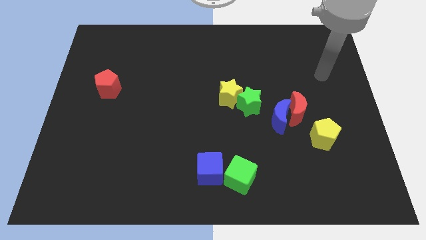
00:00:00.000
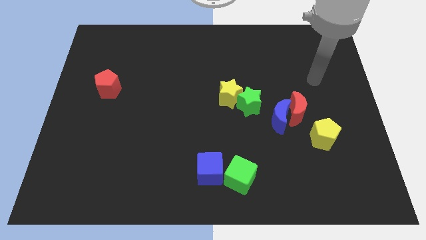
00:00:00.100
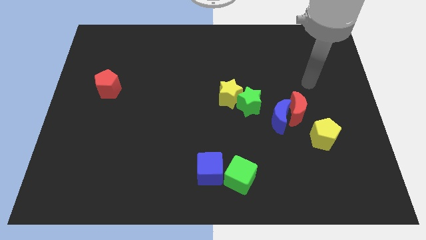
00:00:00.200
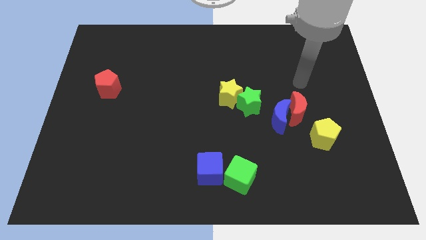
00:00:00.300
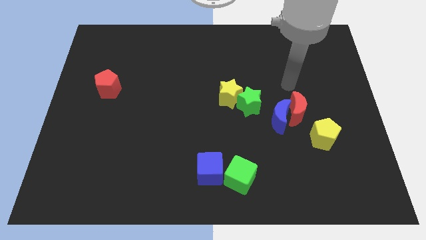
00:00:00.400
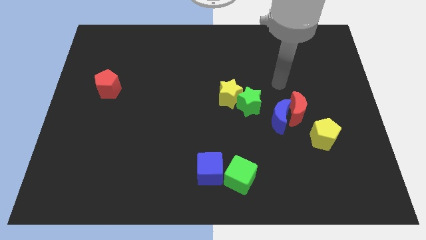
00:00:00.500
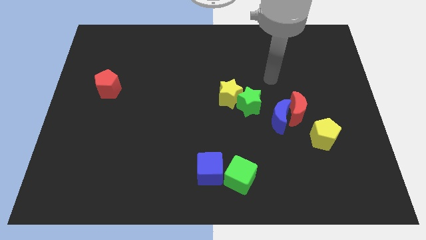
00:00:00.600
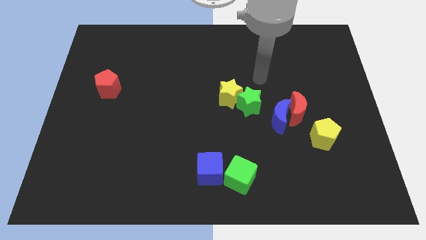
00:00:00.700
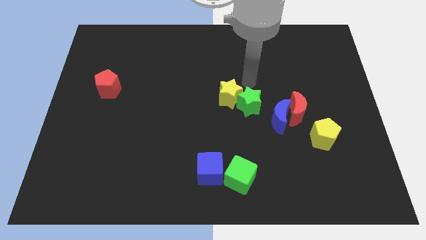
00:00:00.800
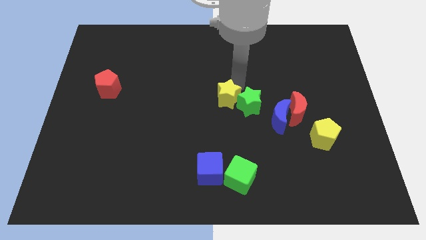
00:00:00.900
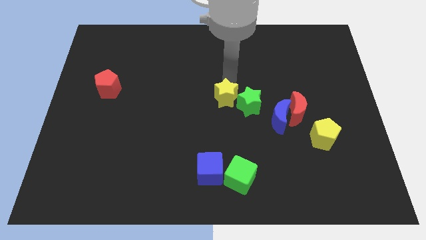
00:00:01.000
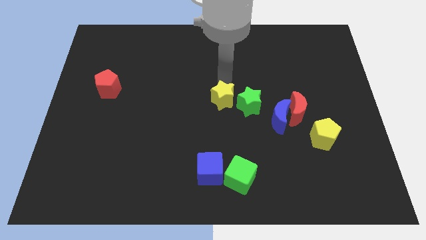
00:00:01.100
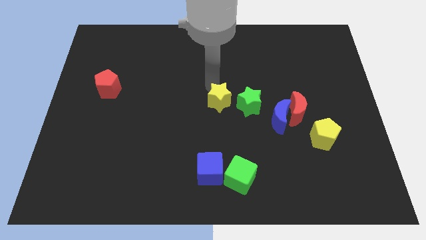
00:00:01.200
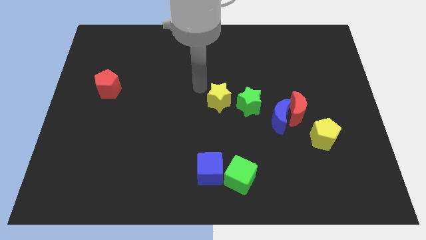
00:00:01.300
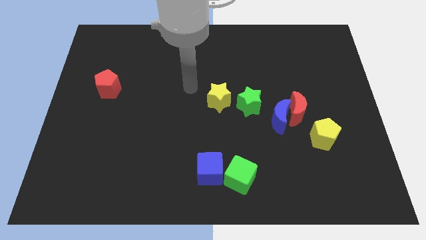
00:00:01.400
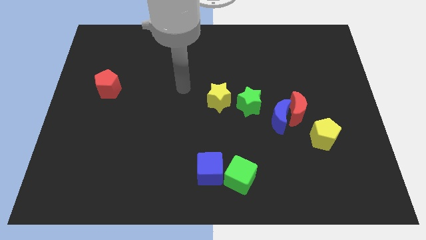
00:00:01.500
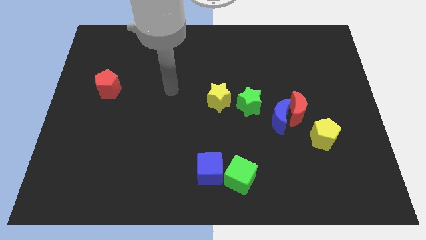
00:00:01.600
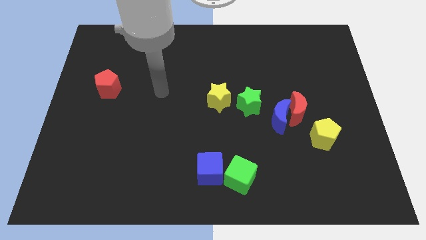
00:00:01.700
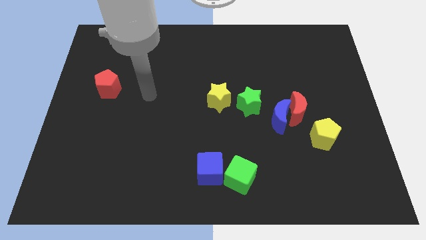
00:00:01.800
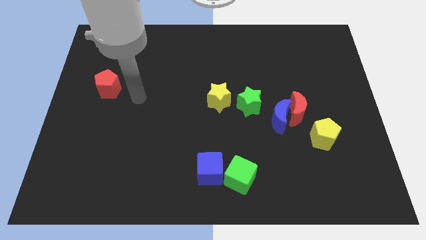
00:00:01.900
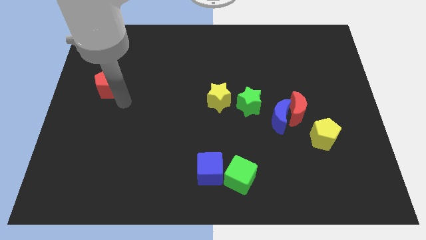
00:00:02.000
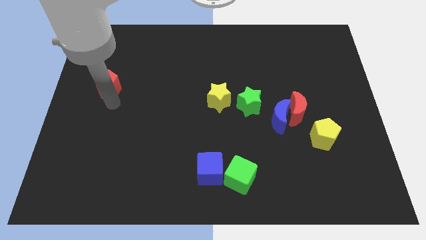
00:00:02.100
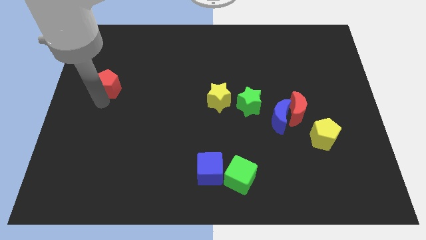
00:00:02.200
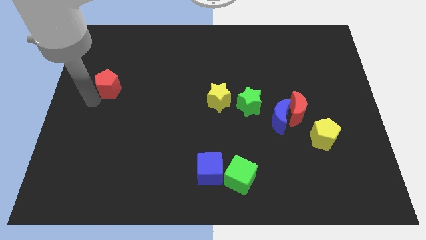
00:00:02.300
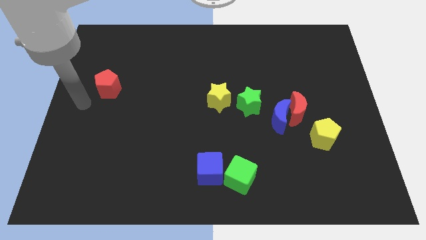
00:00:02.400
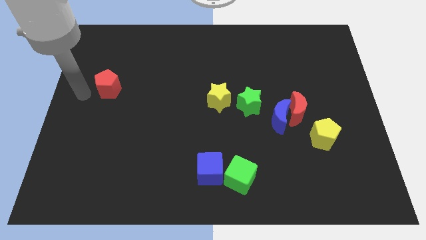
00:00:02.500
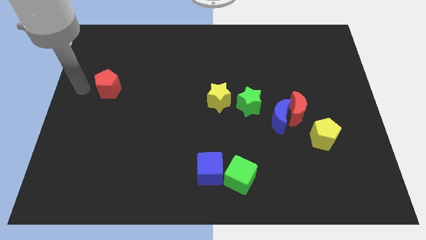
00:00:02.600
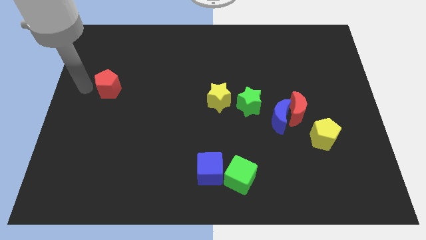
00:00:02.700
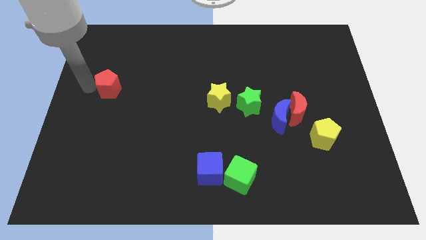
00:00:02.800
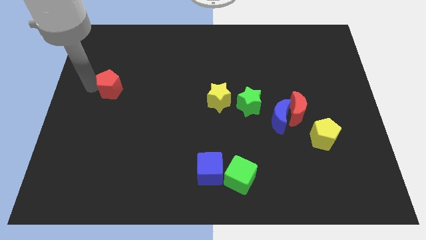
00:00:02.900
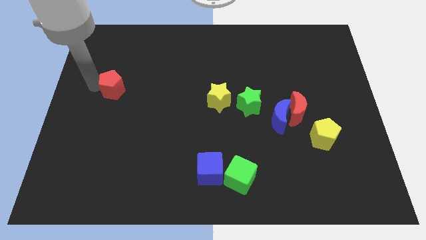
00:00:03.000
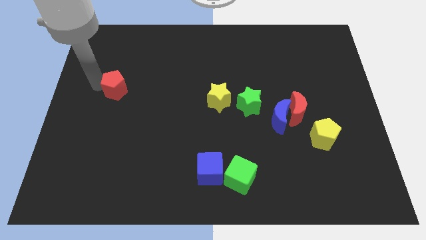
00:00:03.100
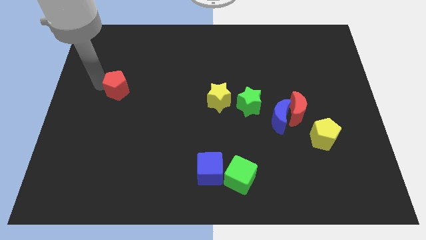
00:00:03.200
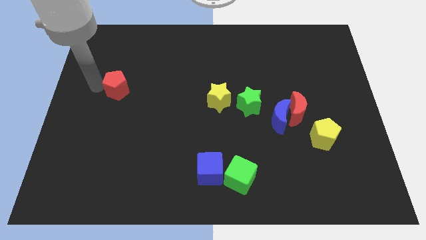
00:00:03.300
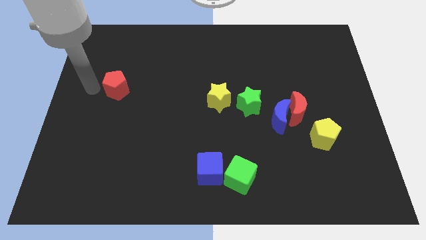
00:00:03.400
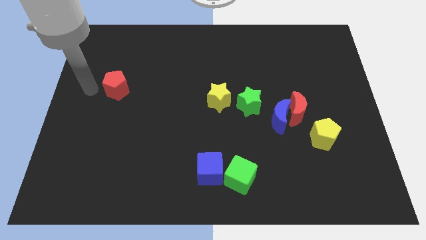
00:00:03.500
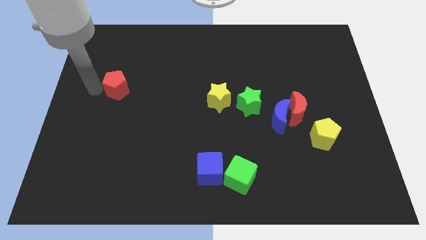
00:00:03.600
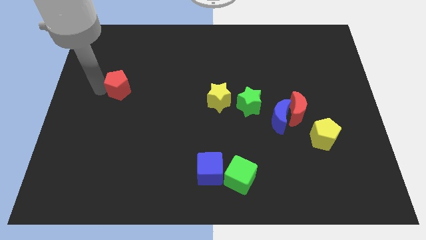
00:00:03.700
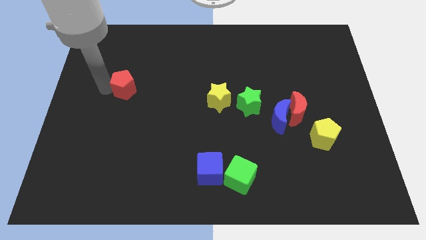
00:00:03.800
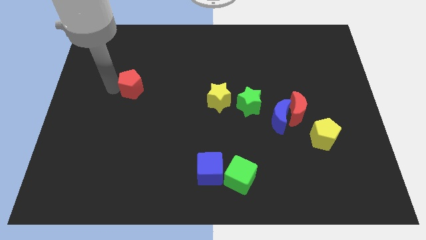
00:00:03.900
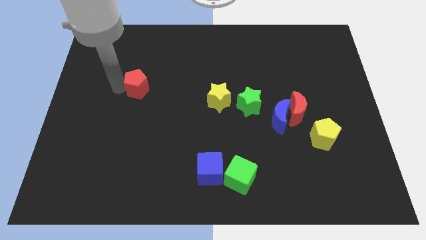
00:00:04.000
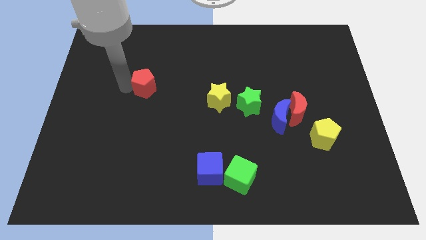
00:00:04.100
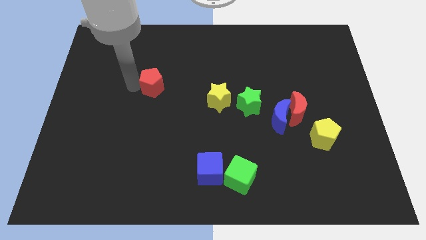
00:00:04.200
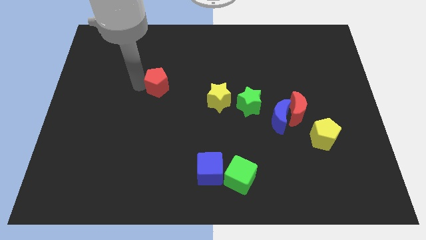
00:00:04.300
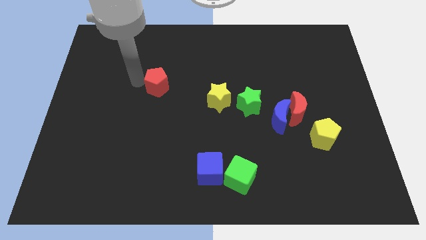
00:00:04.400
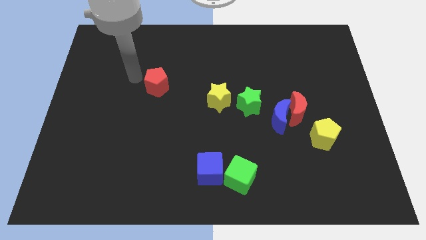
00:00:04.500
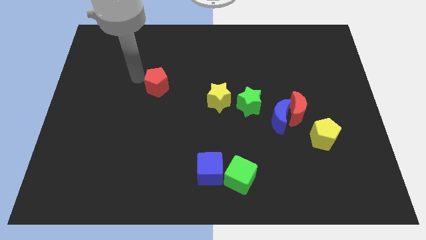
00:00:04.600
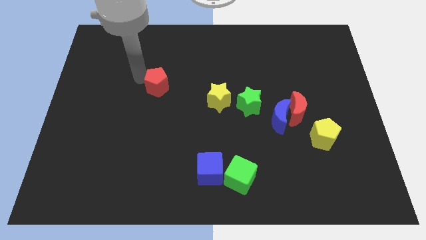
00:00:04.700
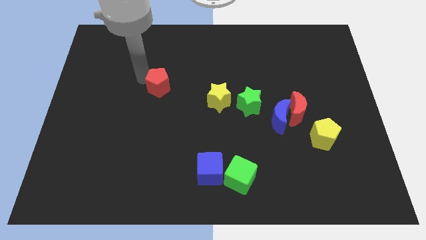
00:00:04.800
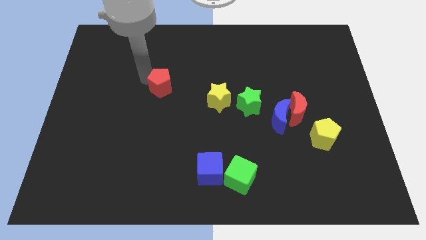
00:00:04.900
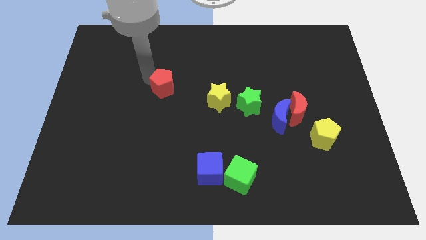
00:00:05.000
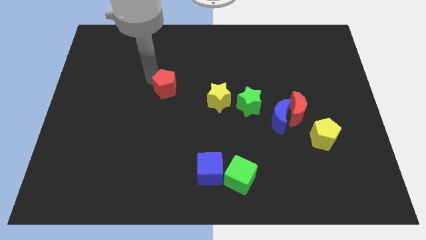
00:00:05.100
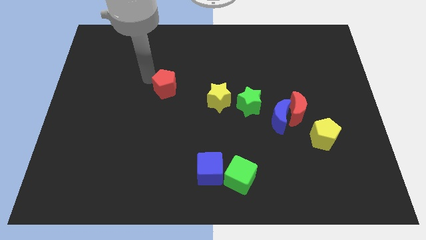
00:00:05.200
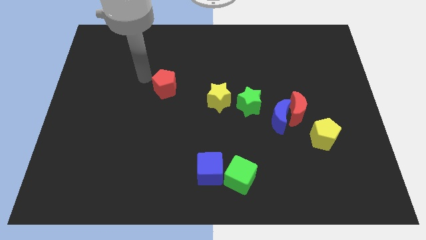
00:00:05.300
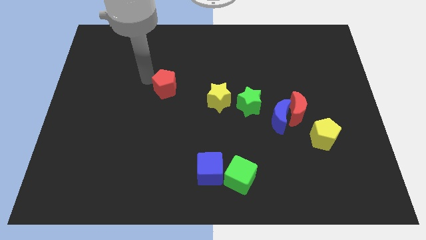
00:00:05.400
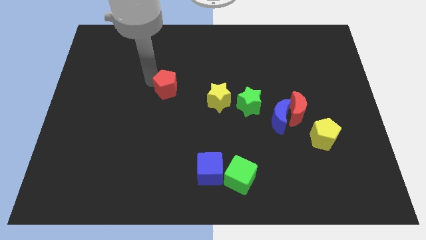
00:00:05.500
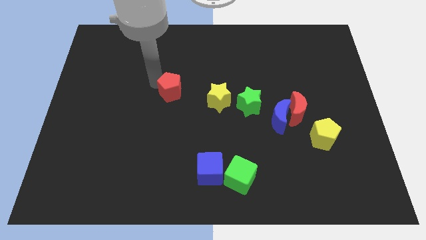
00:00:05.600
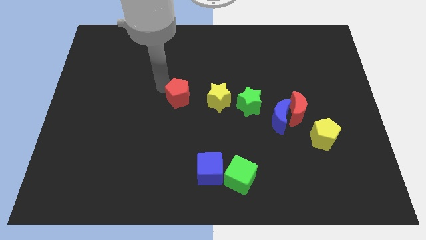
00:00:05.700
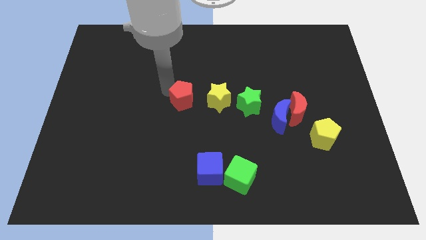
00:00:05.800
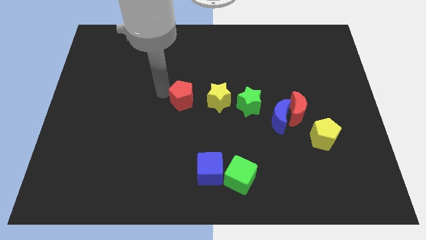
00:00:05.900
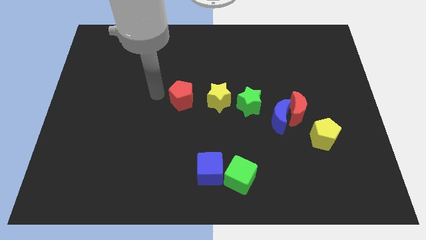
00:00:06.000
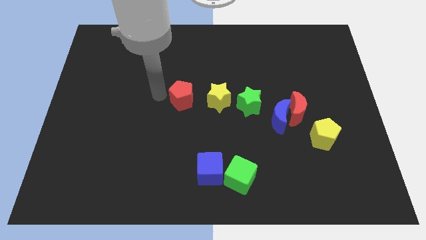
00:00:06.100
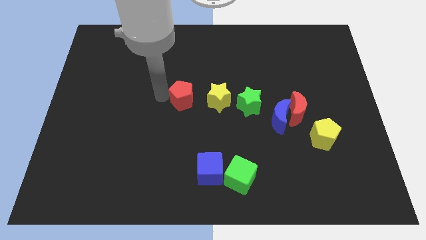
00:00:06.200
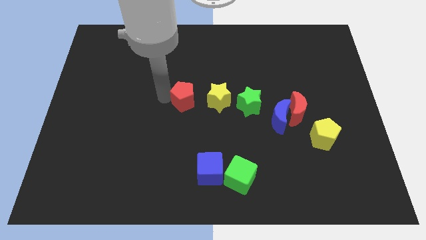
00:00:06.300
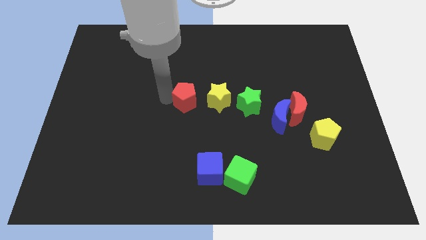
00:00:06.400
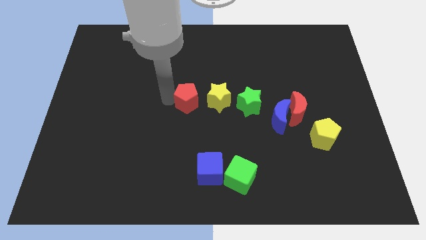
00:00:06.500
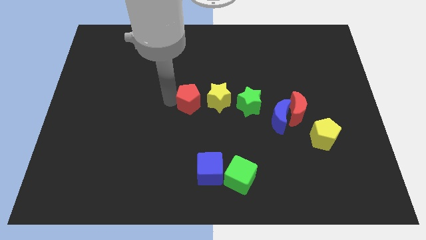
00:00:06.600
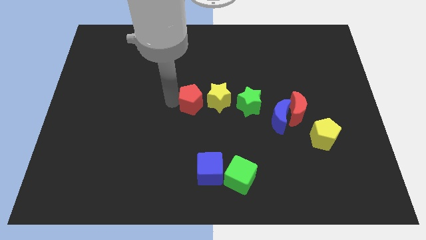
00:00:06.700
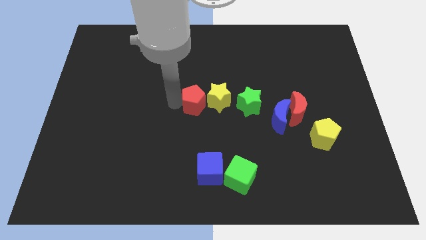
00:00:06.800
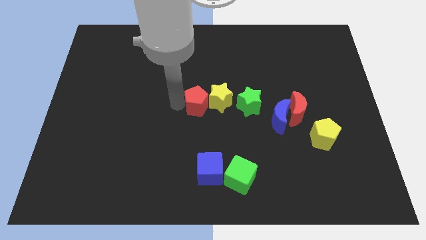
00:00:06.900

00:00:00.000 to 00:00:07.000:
move the red pentagon next to the yellow star

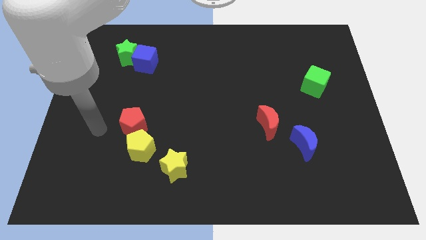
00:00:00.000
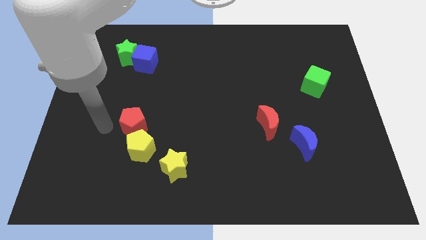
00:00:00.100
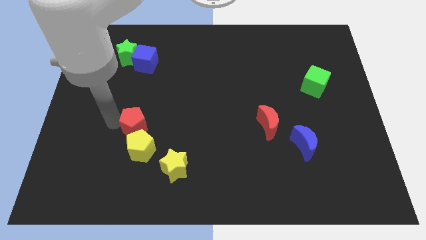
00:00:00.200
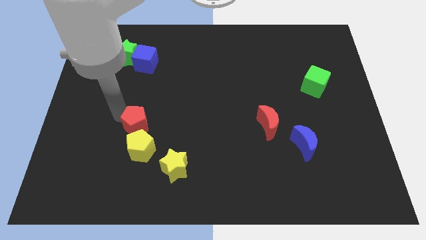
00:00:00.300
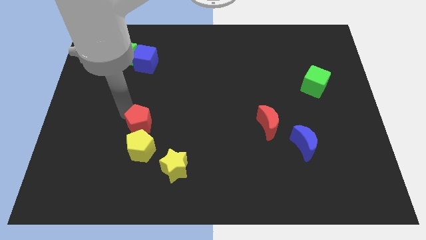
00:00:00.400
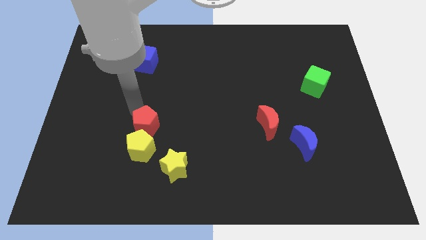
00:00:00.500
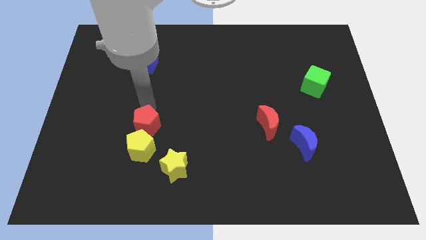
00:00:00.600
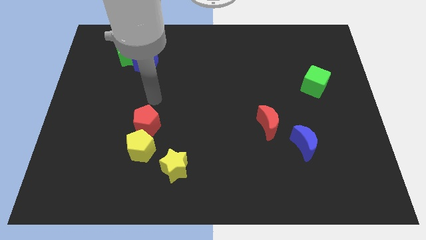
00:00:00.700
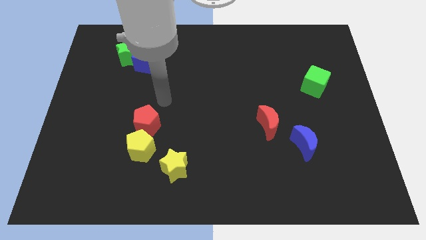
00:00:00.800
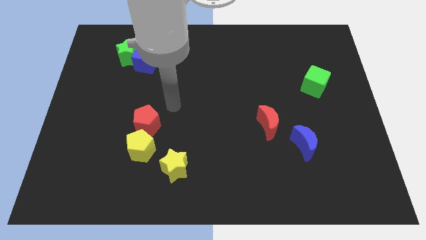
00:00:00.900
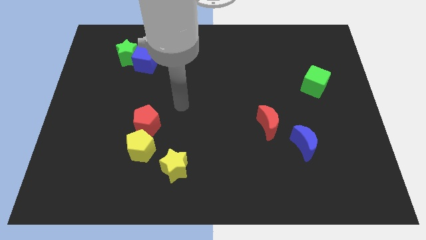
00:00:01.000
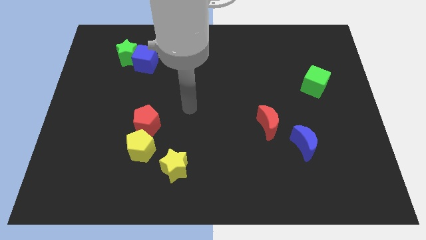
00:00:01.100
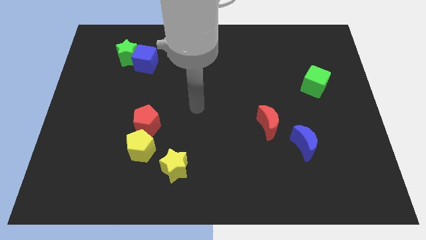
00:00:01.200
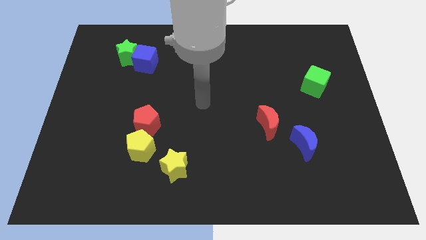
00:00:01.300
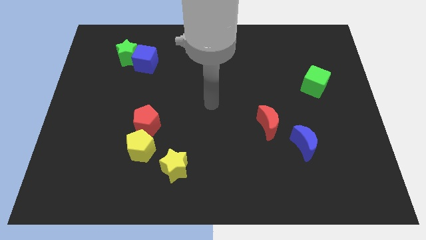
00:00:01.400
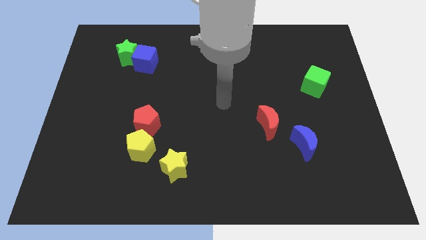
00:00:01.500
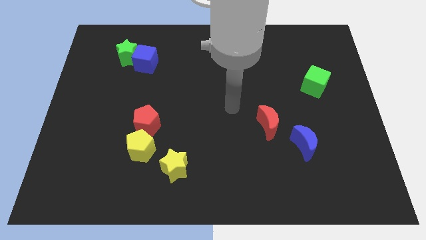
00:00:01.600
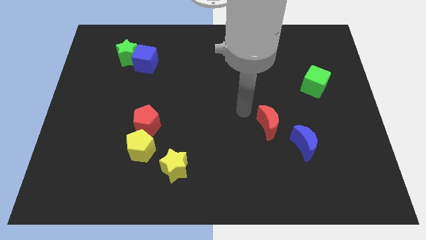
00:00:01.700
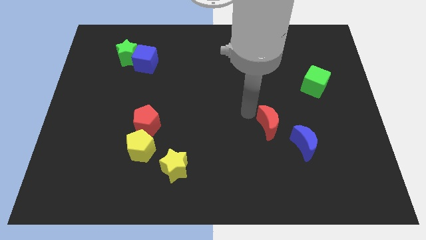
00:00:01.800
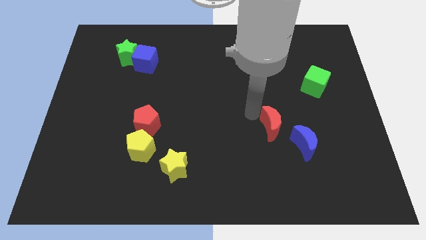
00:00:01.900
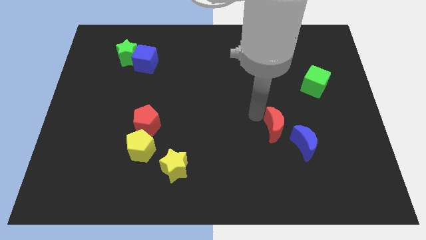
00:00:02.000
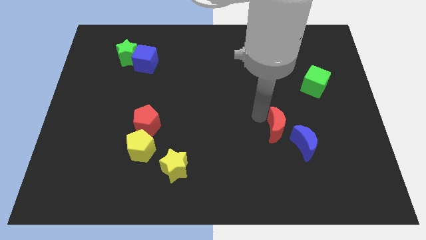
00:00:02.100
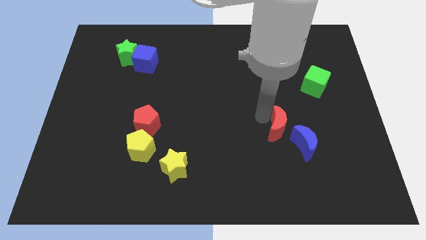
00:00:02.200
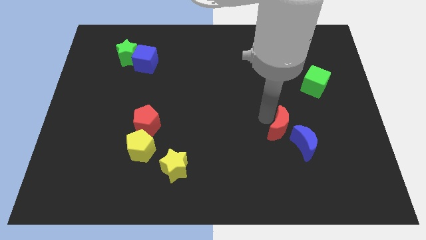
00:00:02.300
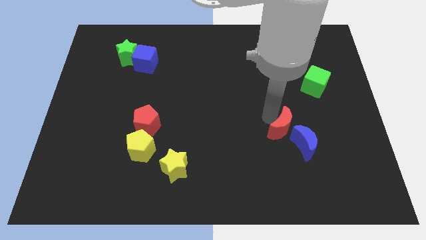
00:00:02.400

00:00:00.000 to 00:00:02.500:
slide the red moon close to the blue moon
